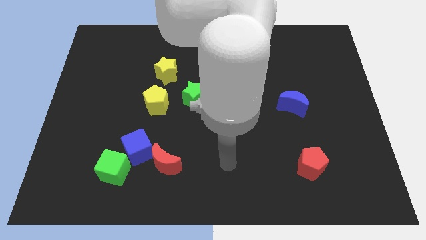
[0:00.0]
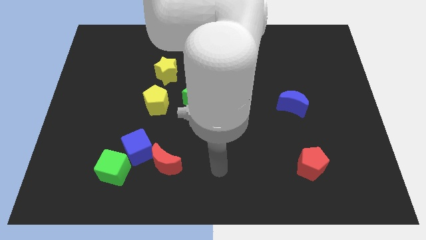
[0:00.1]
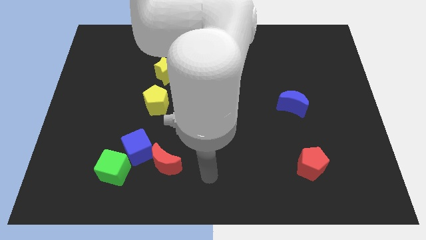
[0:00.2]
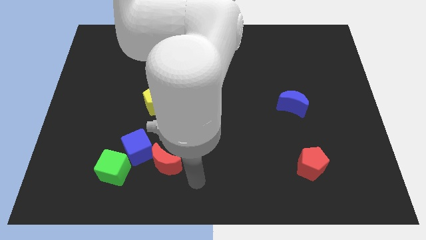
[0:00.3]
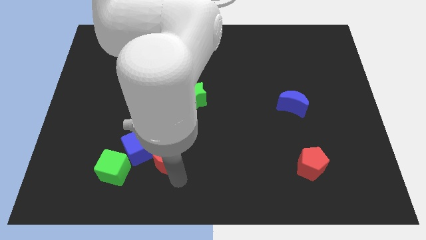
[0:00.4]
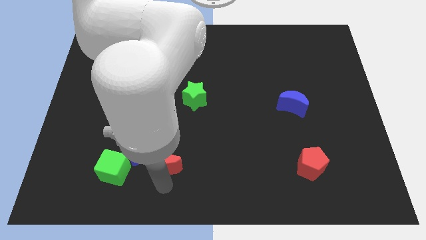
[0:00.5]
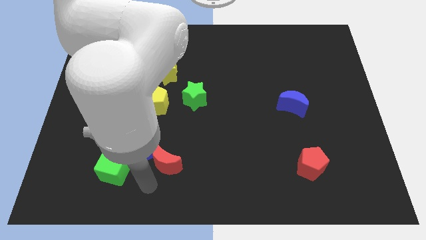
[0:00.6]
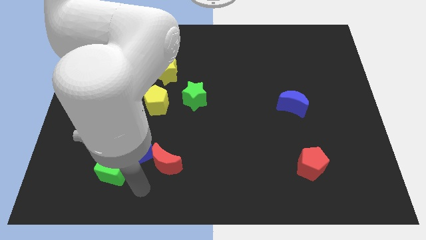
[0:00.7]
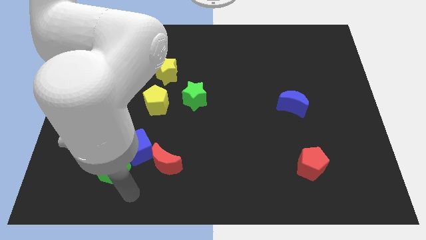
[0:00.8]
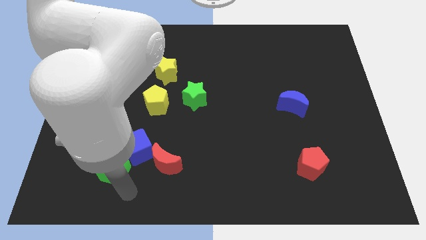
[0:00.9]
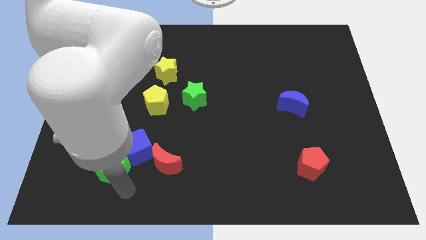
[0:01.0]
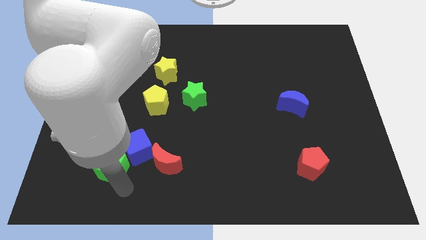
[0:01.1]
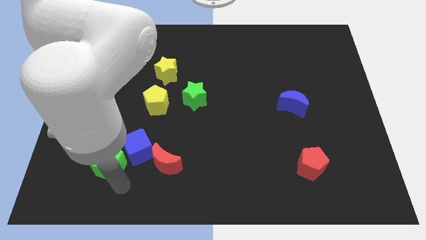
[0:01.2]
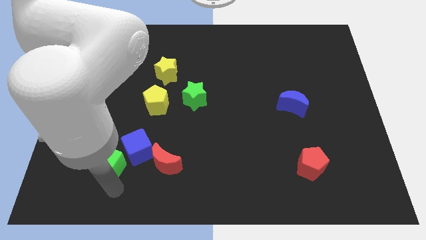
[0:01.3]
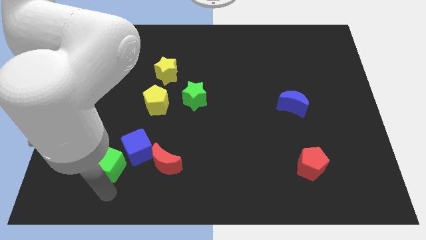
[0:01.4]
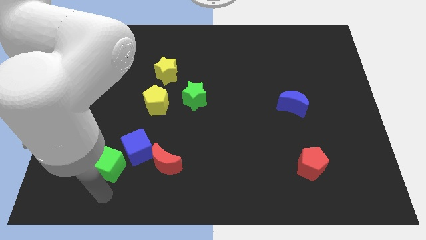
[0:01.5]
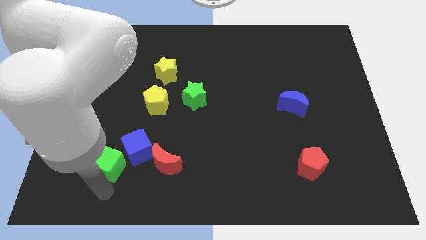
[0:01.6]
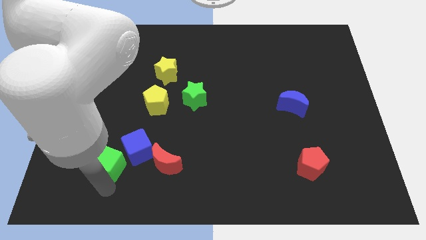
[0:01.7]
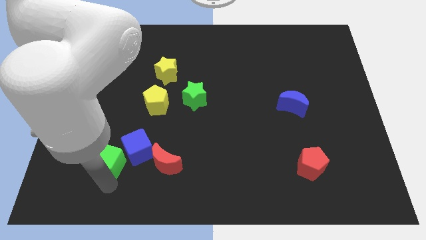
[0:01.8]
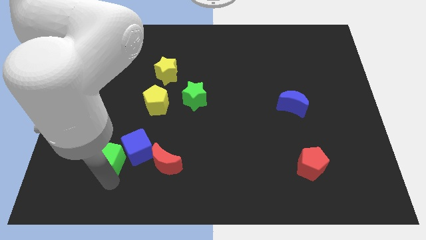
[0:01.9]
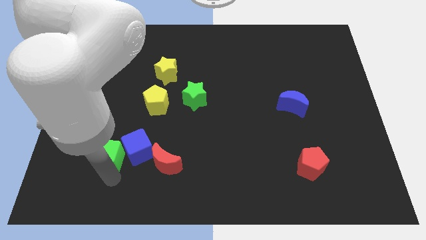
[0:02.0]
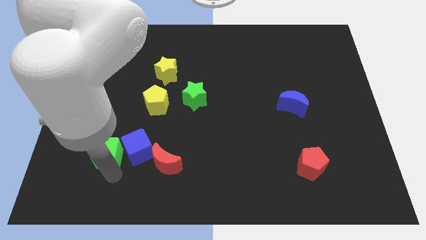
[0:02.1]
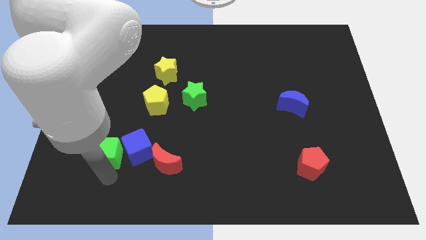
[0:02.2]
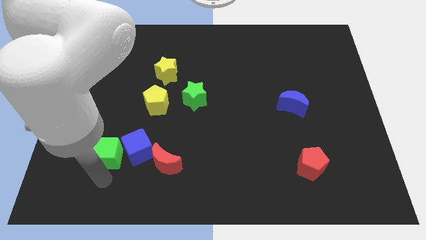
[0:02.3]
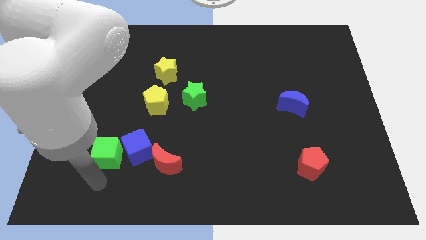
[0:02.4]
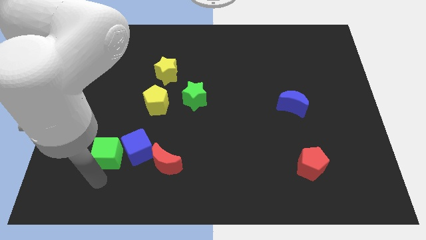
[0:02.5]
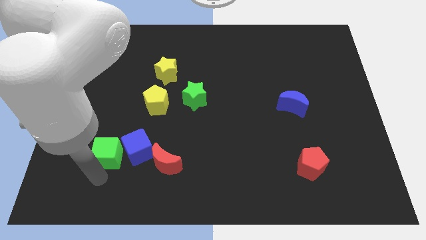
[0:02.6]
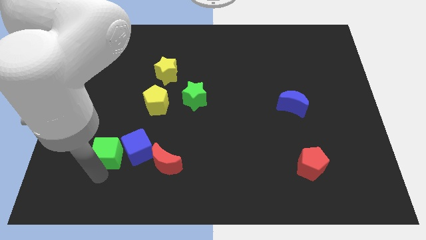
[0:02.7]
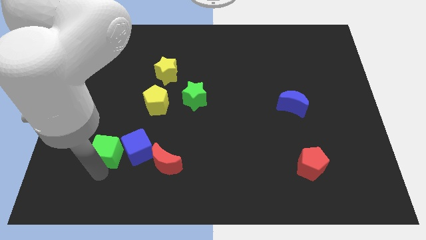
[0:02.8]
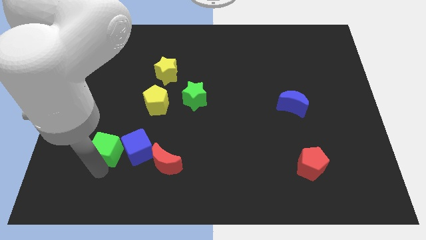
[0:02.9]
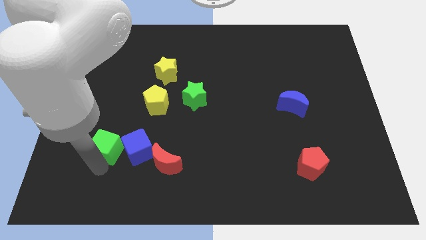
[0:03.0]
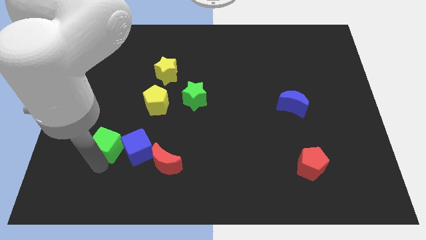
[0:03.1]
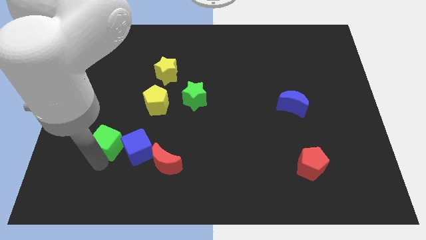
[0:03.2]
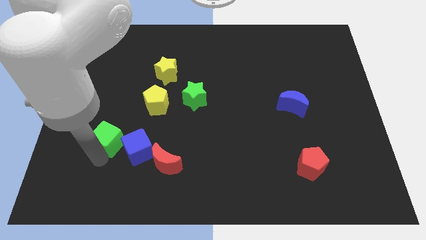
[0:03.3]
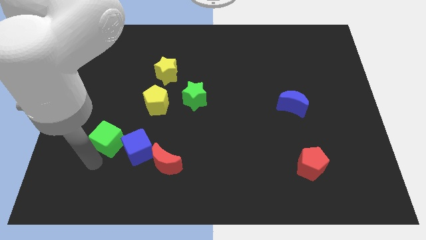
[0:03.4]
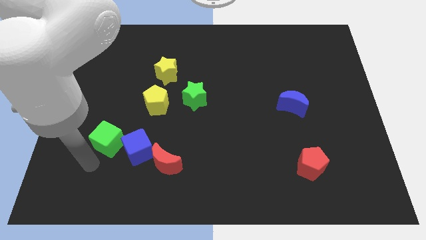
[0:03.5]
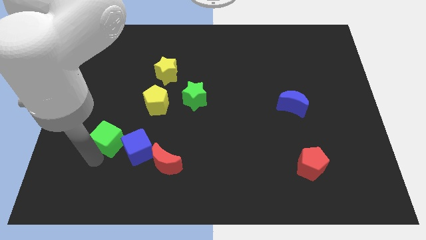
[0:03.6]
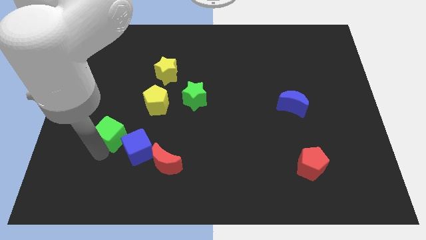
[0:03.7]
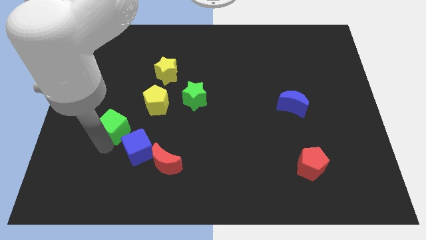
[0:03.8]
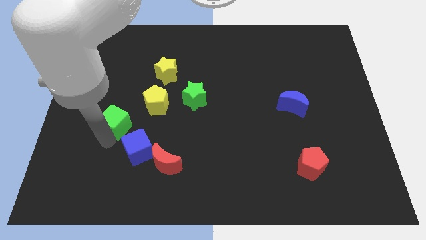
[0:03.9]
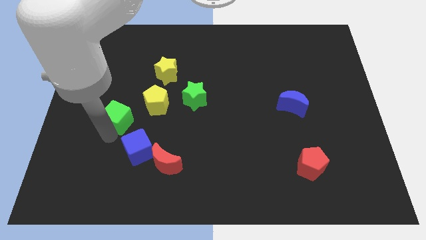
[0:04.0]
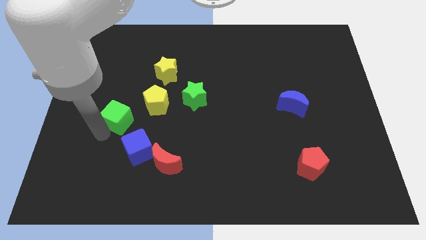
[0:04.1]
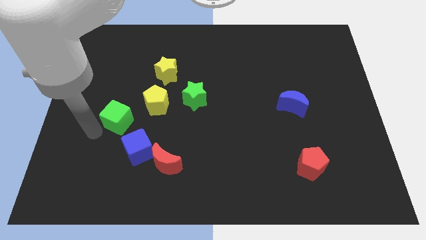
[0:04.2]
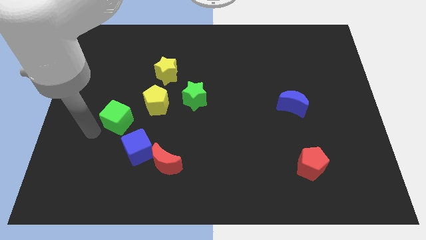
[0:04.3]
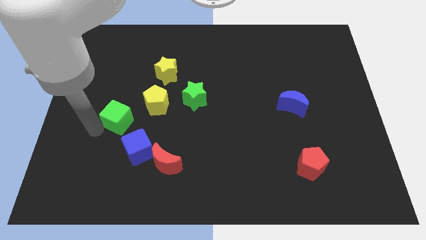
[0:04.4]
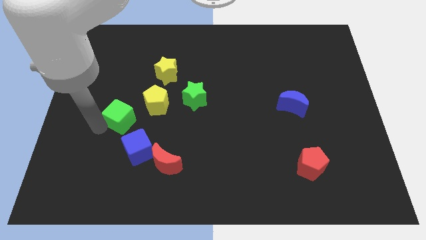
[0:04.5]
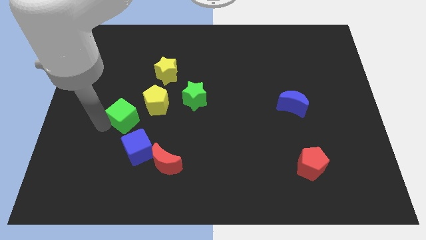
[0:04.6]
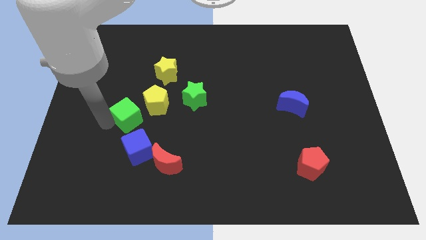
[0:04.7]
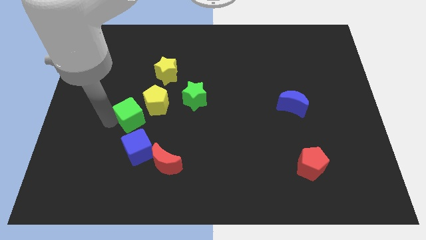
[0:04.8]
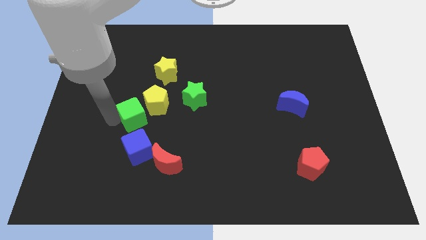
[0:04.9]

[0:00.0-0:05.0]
move the green cube next to the yellow pentagon

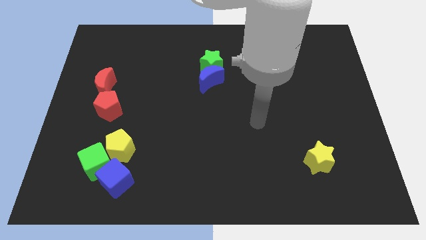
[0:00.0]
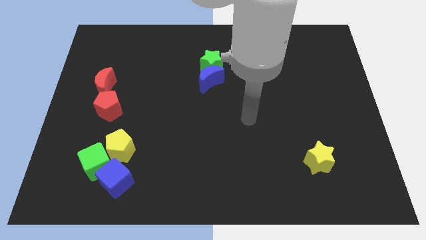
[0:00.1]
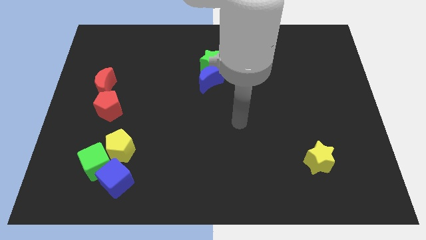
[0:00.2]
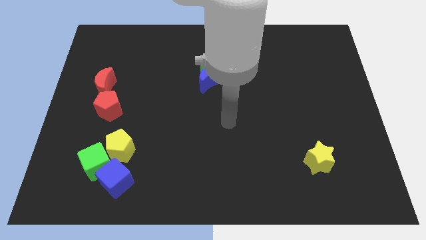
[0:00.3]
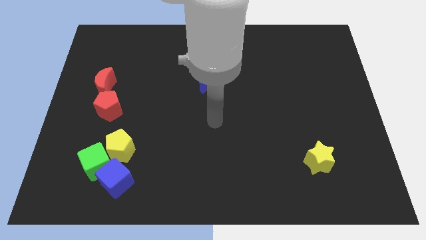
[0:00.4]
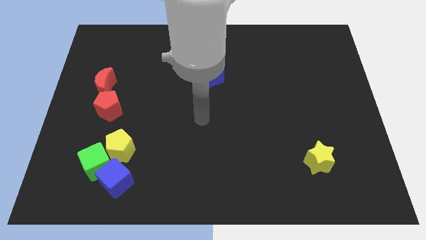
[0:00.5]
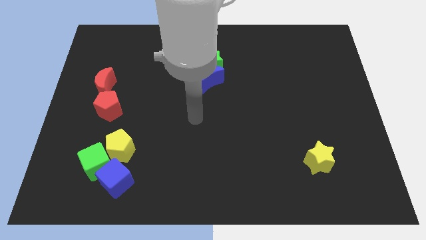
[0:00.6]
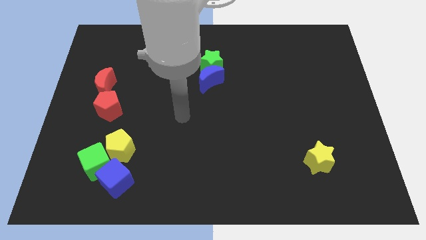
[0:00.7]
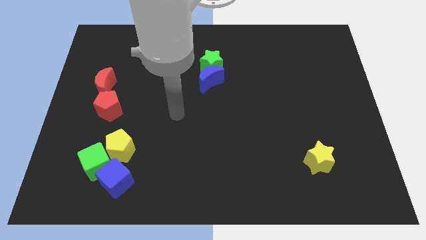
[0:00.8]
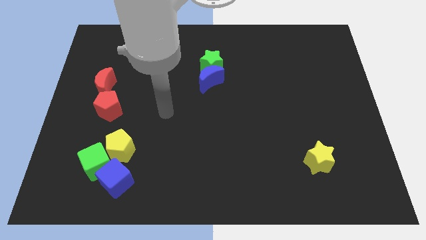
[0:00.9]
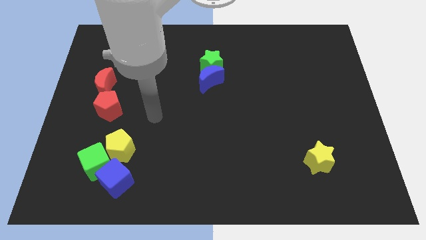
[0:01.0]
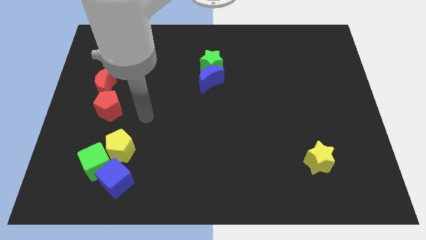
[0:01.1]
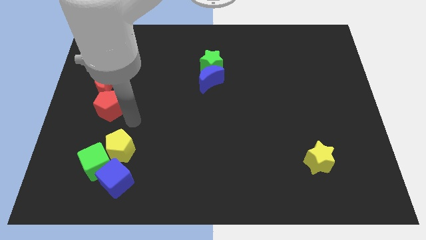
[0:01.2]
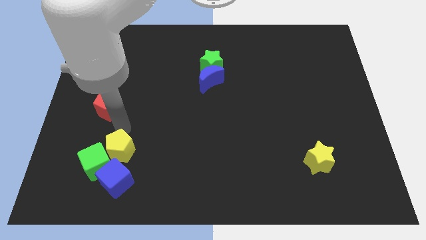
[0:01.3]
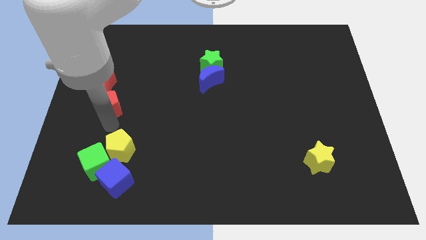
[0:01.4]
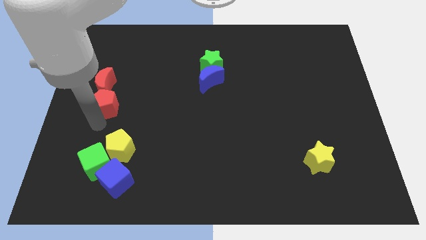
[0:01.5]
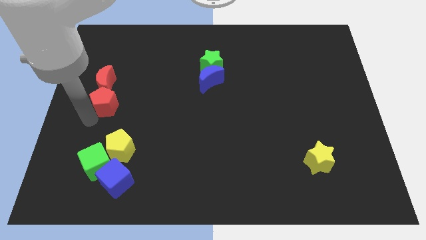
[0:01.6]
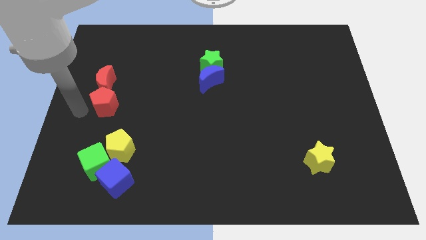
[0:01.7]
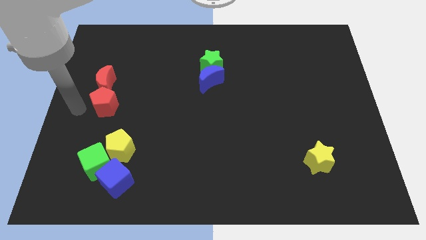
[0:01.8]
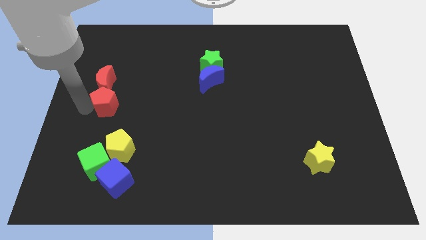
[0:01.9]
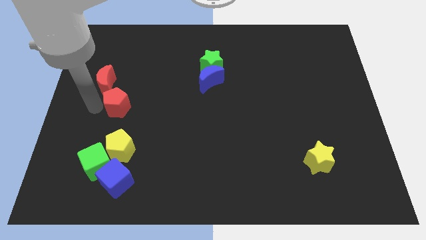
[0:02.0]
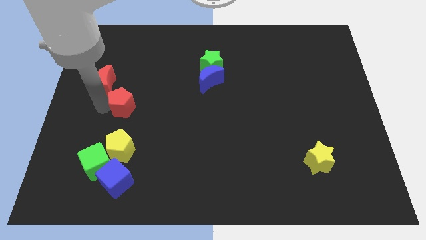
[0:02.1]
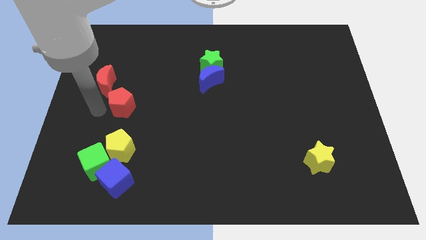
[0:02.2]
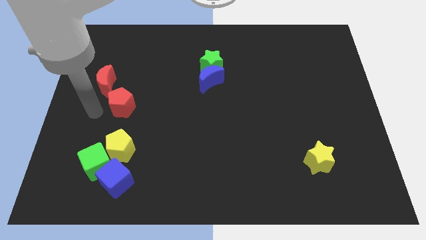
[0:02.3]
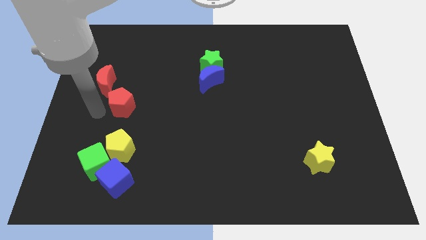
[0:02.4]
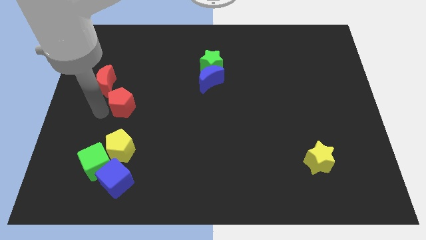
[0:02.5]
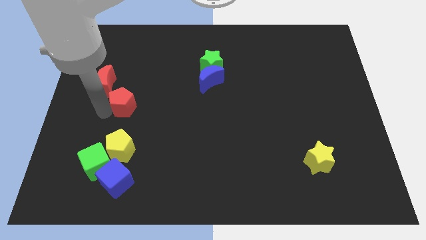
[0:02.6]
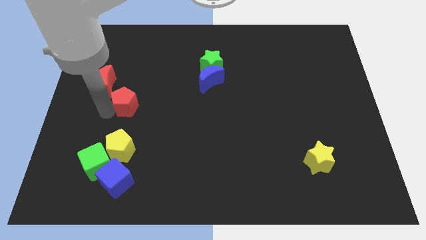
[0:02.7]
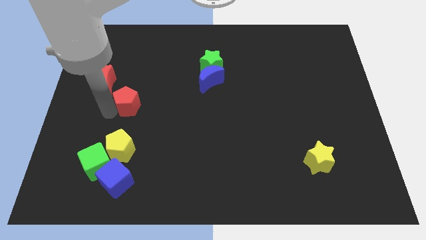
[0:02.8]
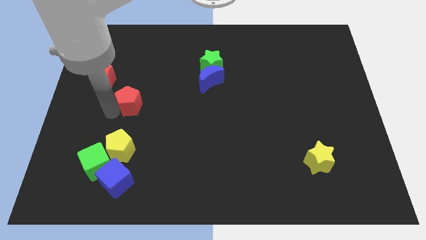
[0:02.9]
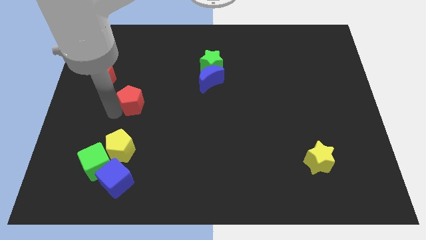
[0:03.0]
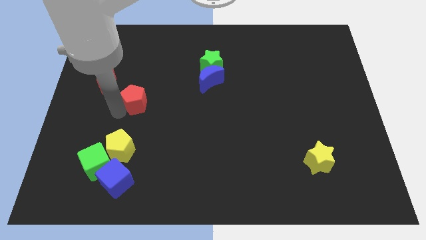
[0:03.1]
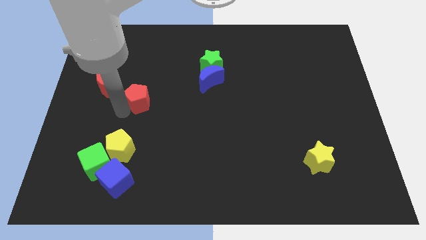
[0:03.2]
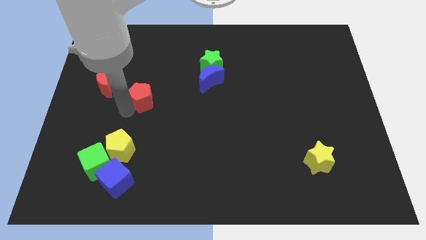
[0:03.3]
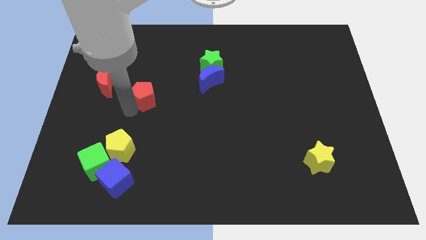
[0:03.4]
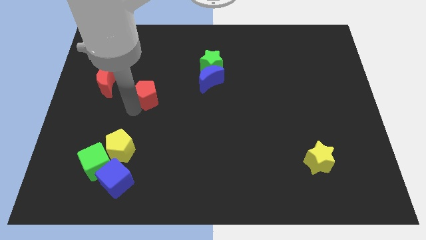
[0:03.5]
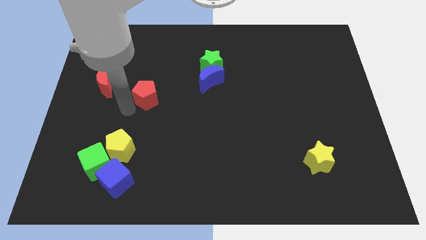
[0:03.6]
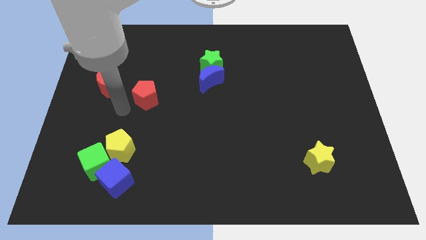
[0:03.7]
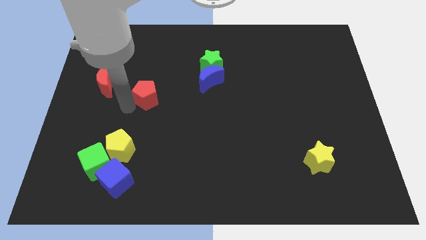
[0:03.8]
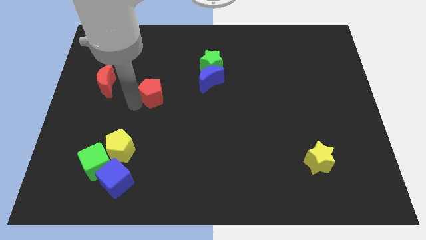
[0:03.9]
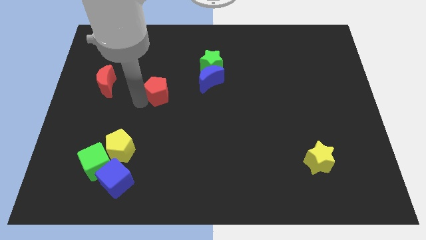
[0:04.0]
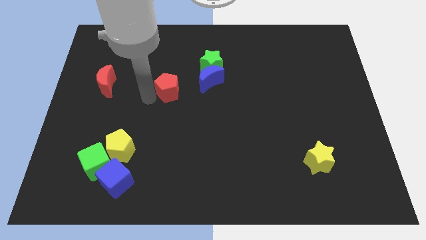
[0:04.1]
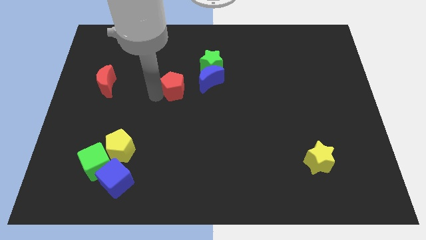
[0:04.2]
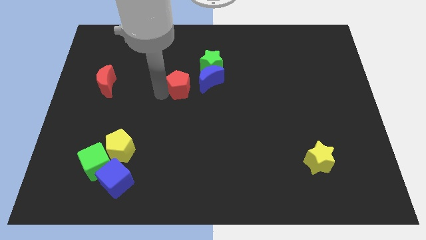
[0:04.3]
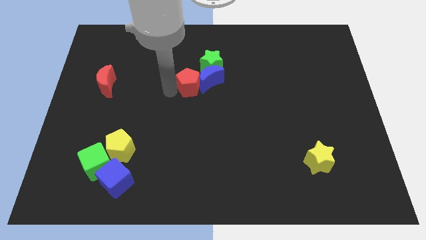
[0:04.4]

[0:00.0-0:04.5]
push the red pentagon towards the blue moon
